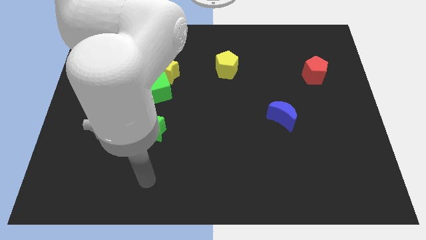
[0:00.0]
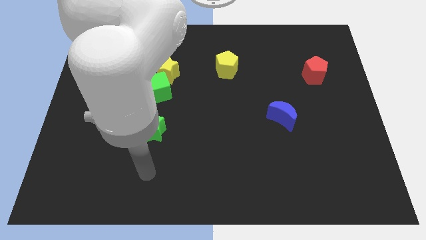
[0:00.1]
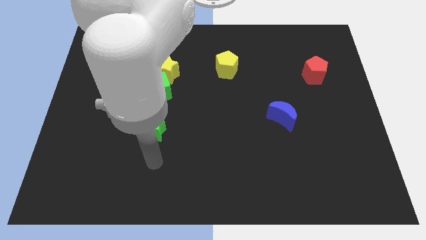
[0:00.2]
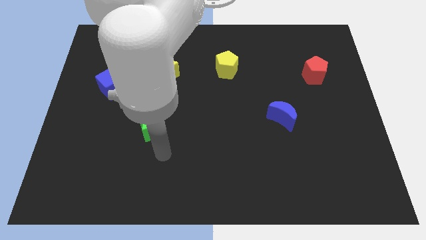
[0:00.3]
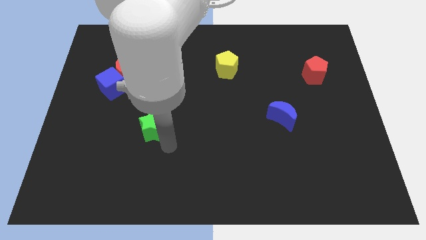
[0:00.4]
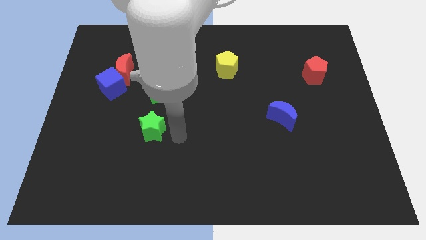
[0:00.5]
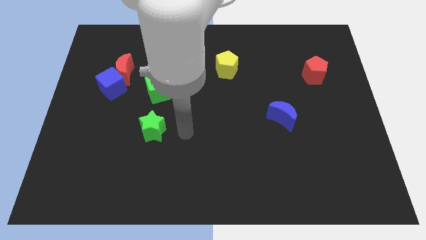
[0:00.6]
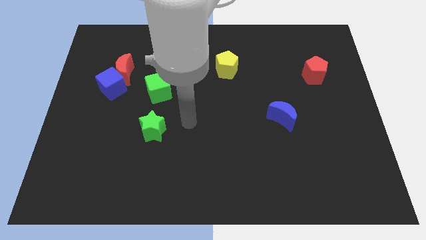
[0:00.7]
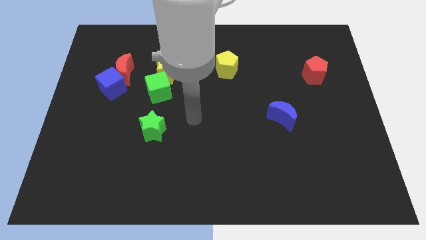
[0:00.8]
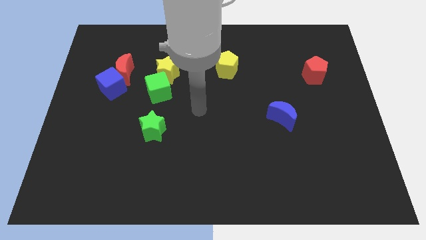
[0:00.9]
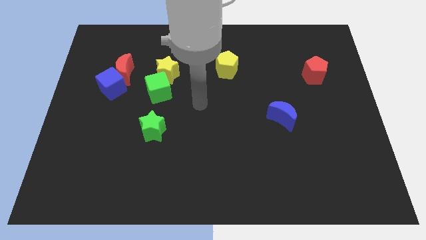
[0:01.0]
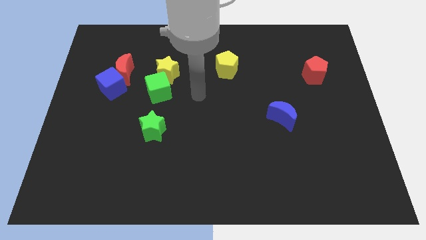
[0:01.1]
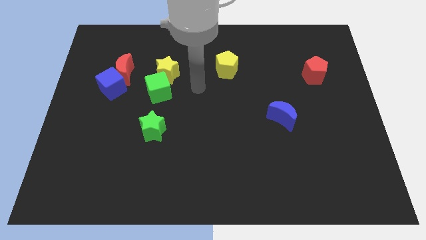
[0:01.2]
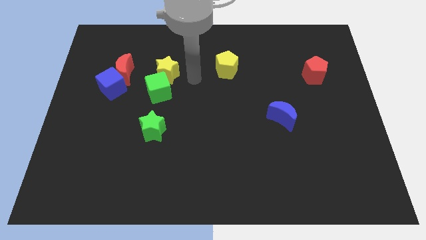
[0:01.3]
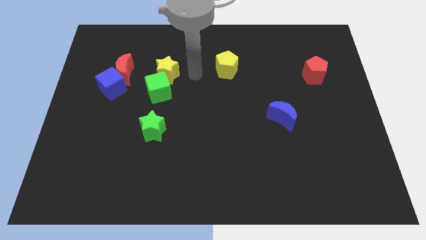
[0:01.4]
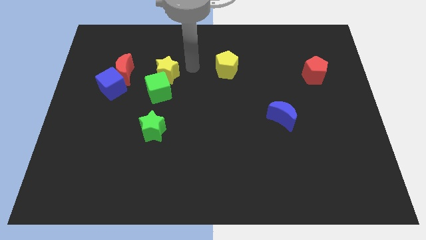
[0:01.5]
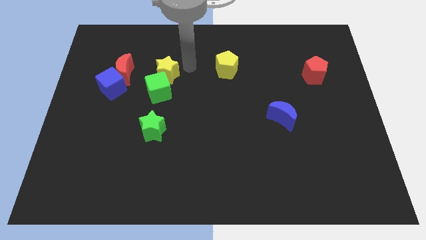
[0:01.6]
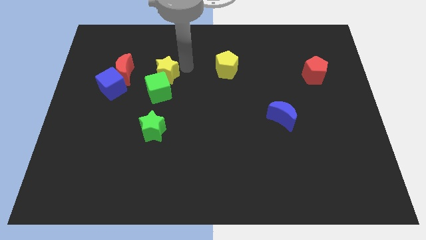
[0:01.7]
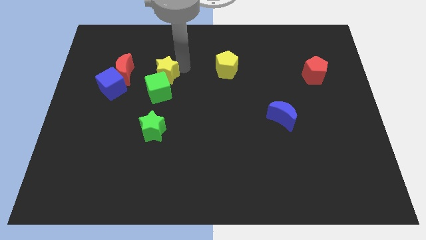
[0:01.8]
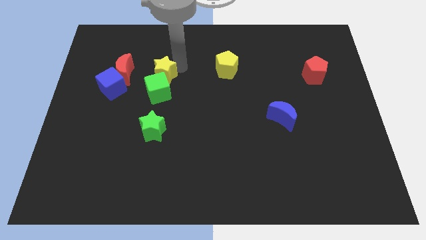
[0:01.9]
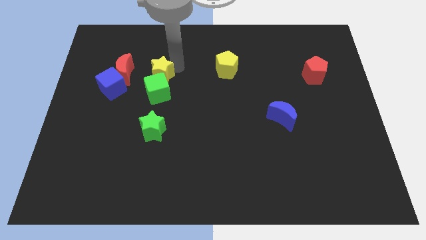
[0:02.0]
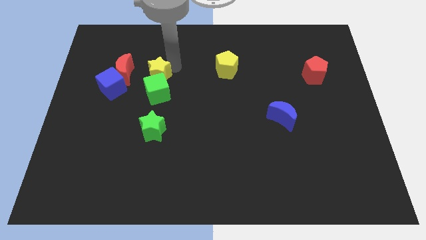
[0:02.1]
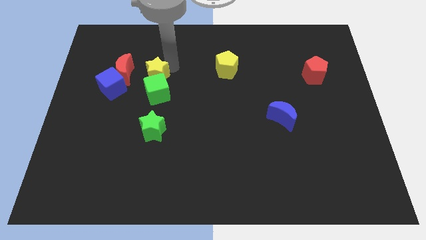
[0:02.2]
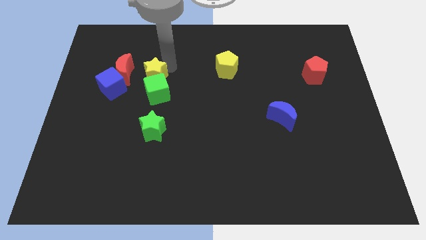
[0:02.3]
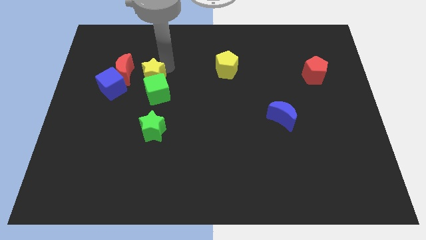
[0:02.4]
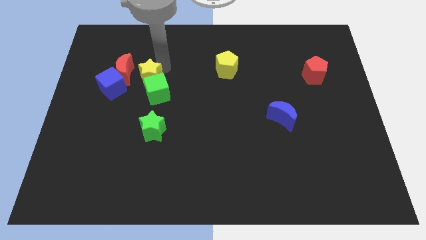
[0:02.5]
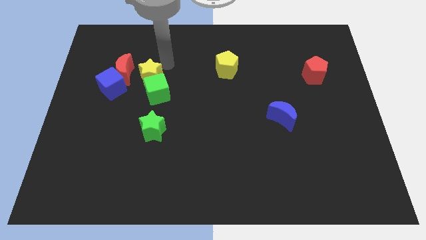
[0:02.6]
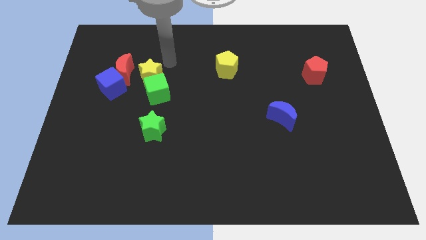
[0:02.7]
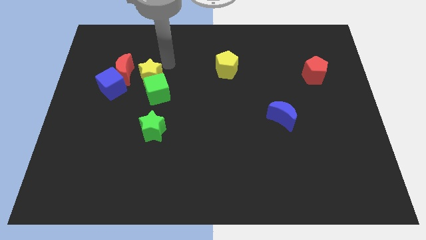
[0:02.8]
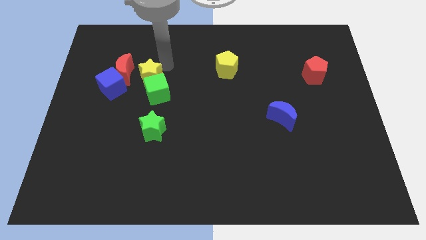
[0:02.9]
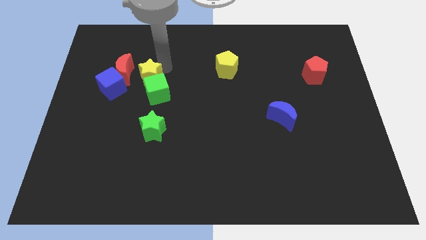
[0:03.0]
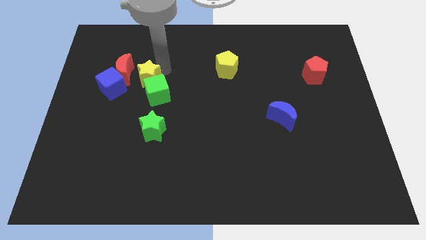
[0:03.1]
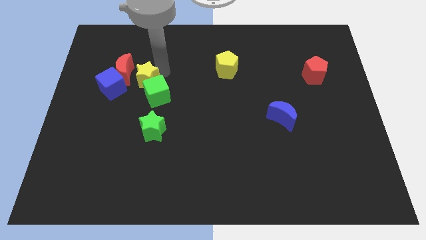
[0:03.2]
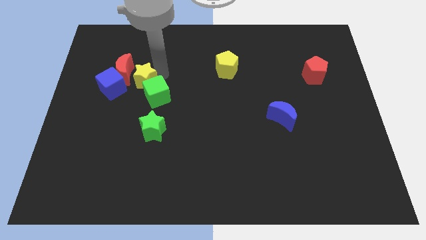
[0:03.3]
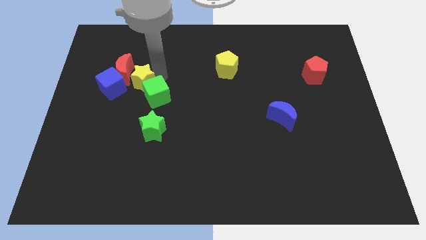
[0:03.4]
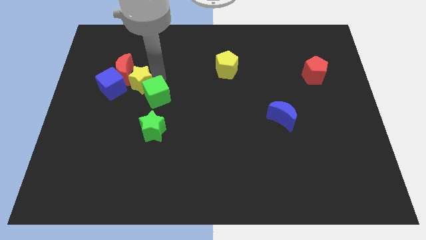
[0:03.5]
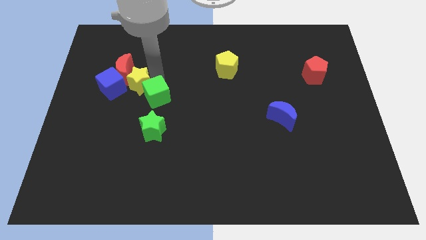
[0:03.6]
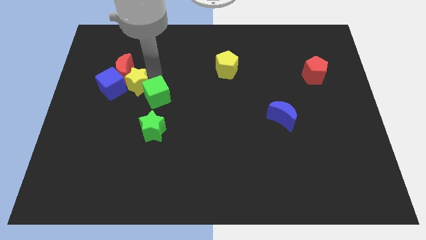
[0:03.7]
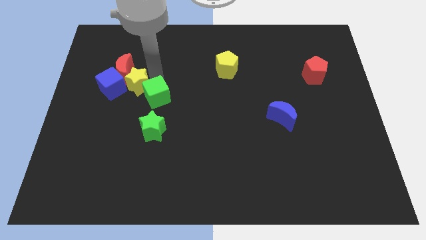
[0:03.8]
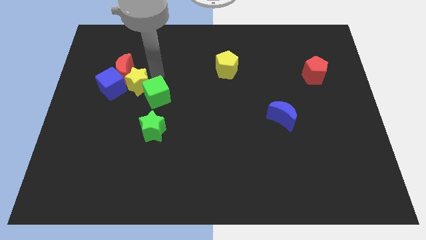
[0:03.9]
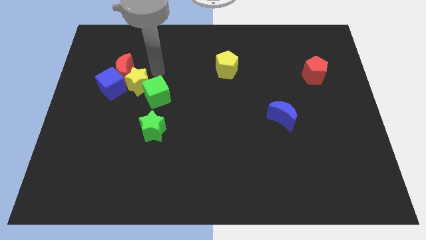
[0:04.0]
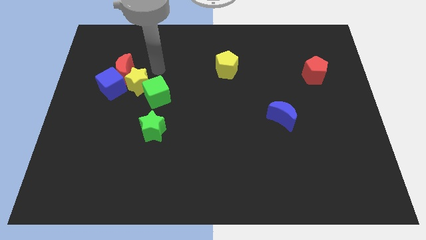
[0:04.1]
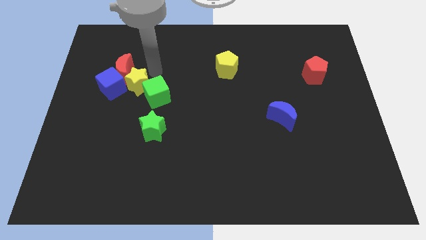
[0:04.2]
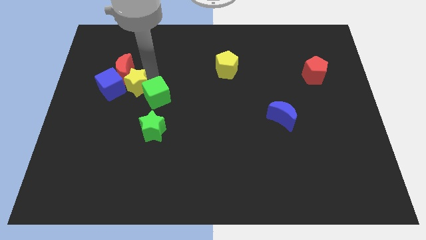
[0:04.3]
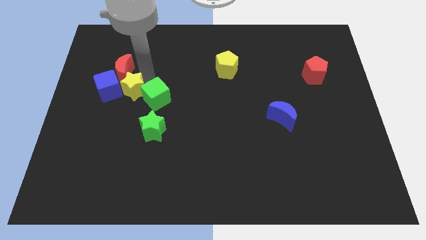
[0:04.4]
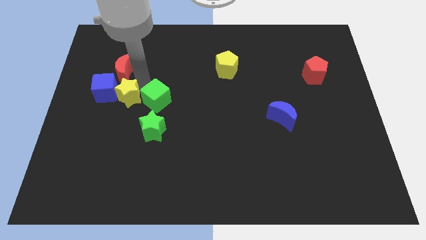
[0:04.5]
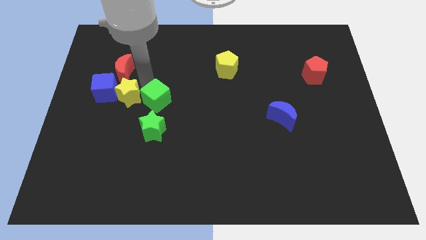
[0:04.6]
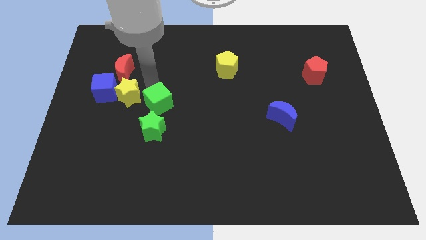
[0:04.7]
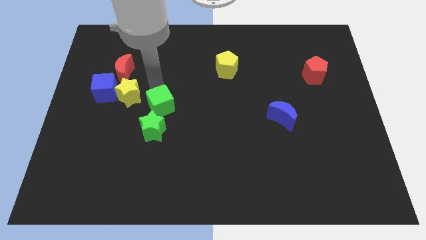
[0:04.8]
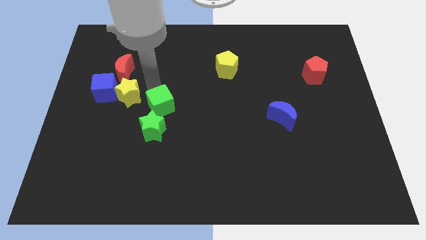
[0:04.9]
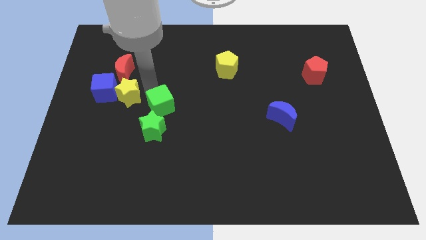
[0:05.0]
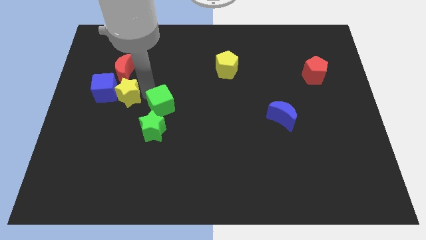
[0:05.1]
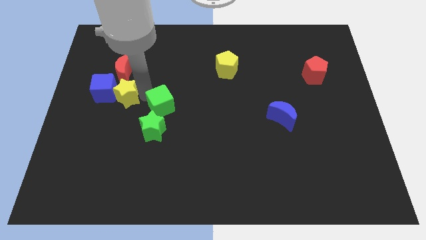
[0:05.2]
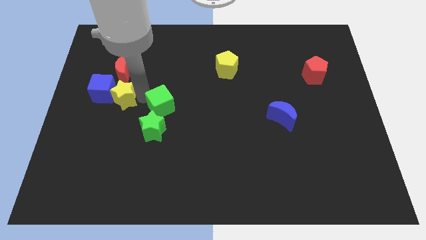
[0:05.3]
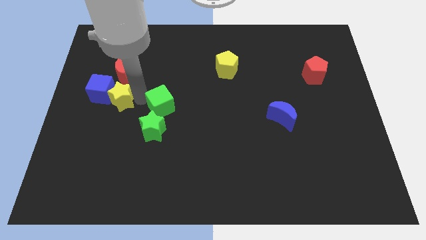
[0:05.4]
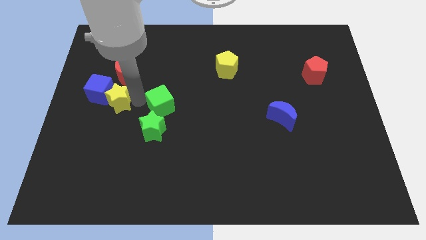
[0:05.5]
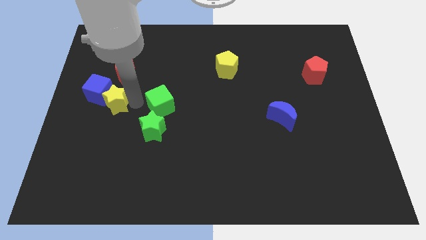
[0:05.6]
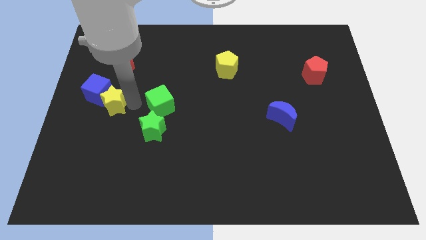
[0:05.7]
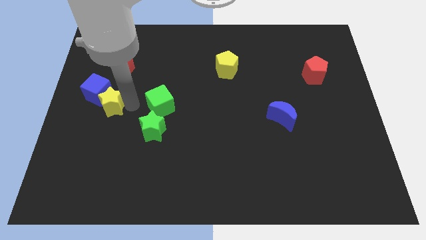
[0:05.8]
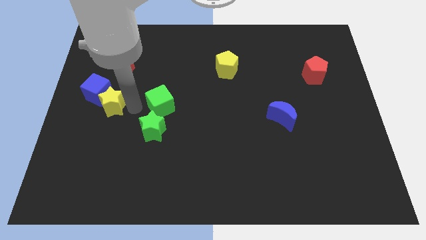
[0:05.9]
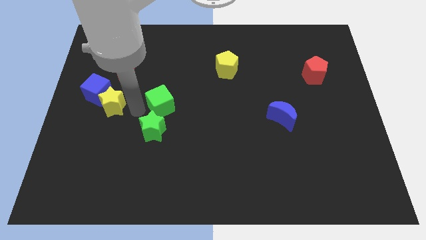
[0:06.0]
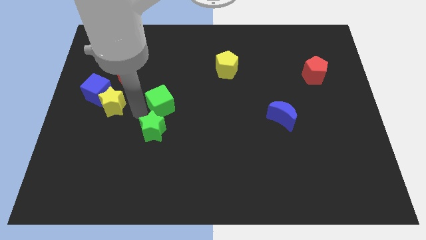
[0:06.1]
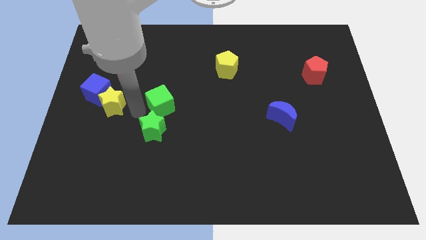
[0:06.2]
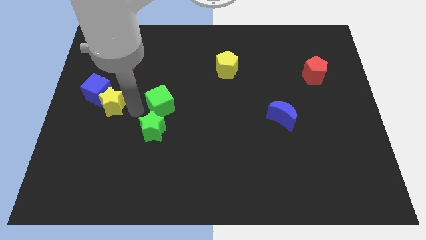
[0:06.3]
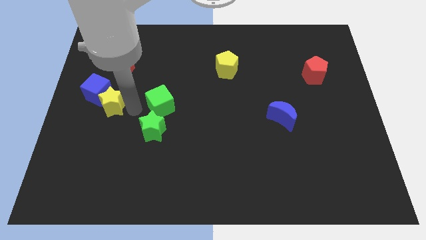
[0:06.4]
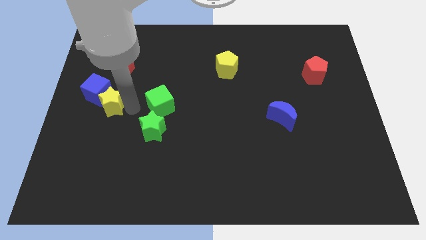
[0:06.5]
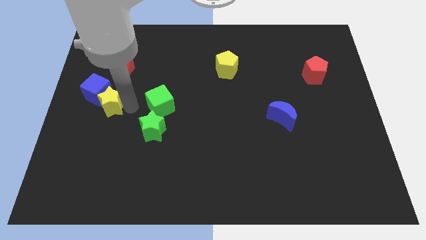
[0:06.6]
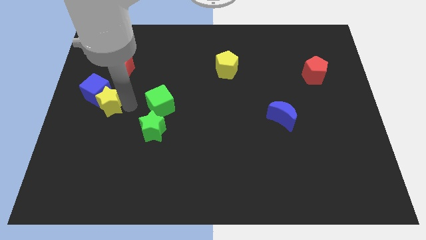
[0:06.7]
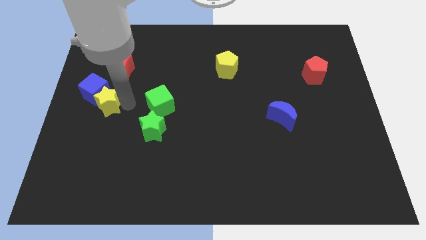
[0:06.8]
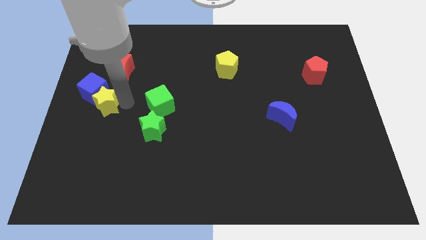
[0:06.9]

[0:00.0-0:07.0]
slide the yellow star to the center left

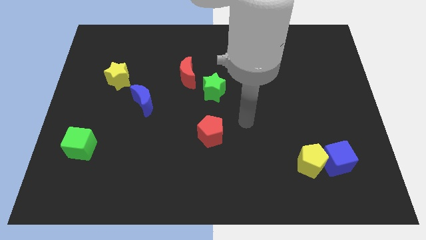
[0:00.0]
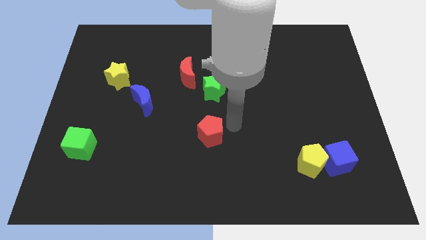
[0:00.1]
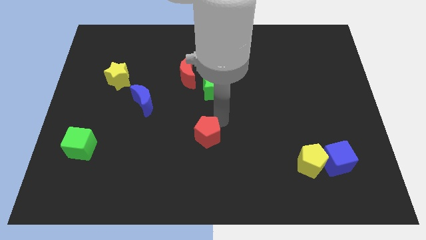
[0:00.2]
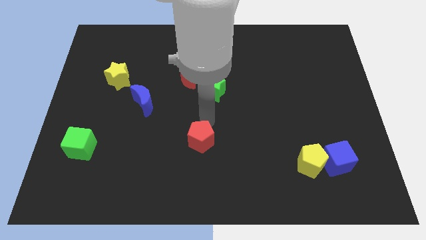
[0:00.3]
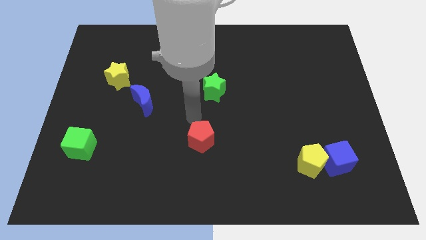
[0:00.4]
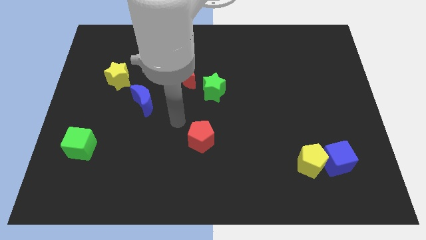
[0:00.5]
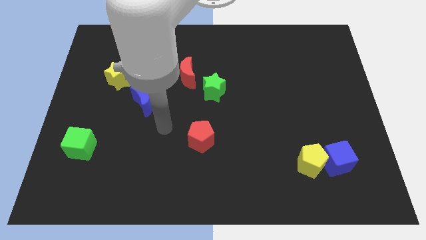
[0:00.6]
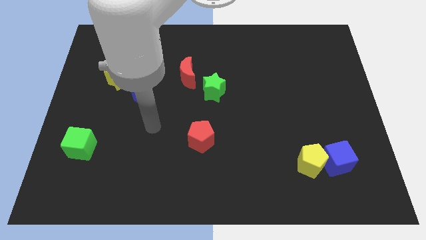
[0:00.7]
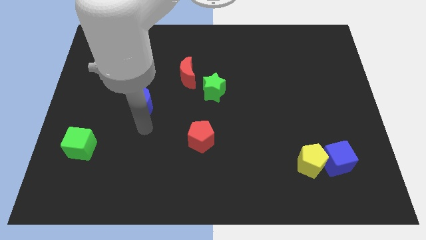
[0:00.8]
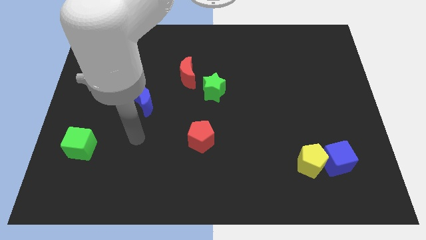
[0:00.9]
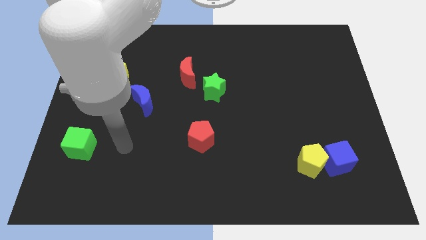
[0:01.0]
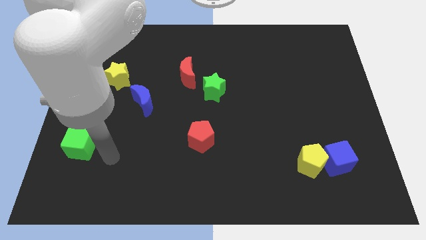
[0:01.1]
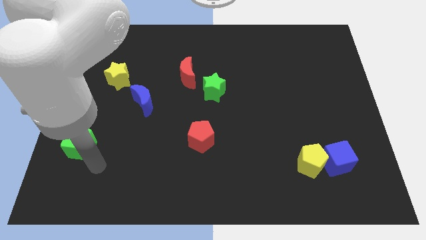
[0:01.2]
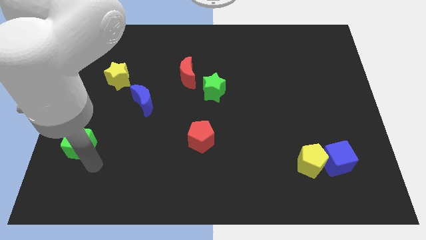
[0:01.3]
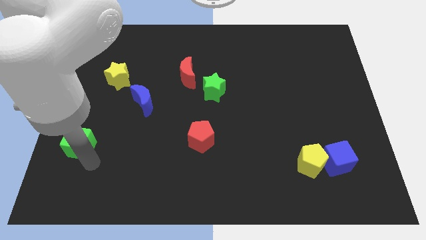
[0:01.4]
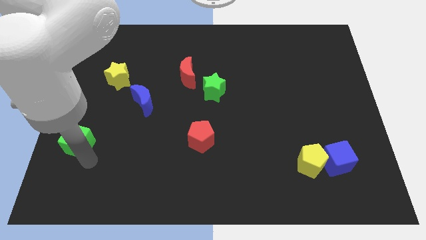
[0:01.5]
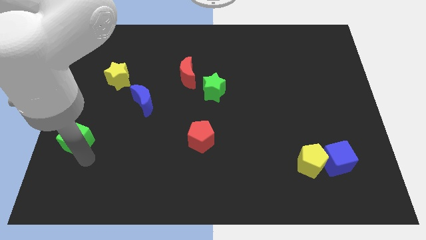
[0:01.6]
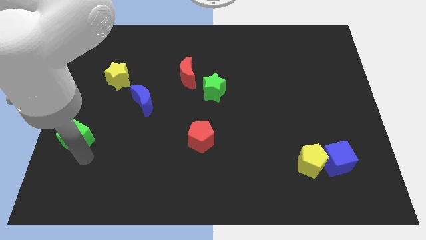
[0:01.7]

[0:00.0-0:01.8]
push the green cube to the center left
